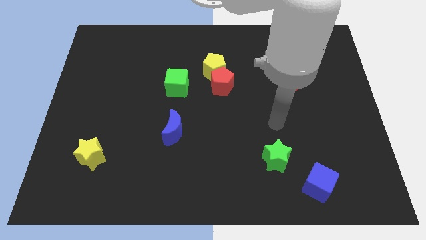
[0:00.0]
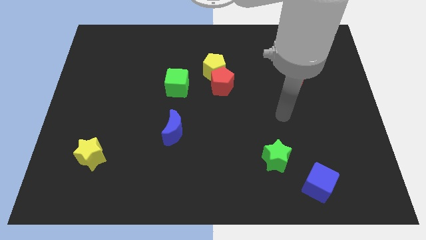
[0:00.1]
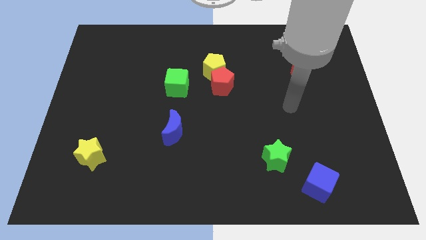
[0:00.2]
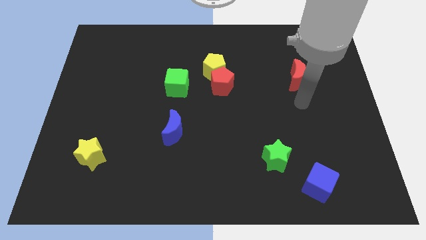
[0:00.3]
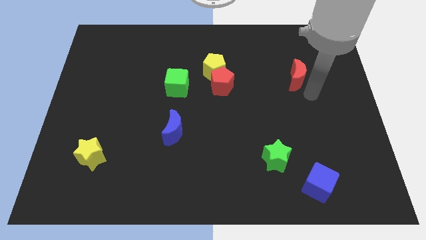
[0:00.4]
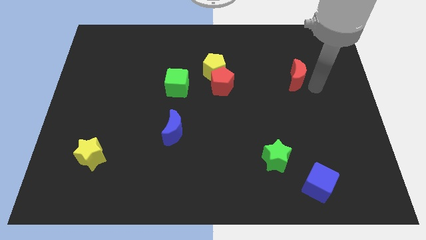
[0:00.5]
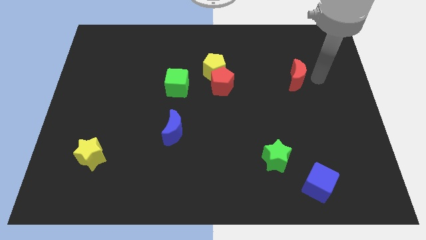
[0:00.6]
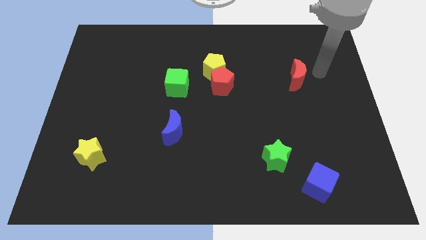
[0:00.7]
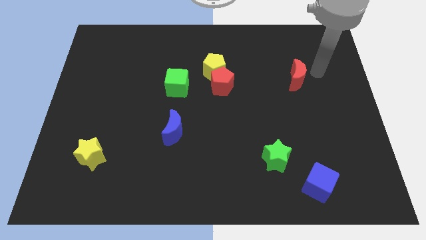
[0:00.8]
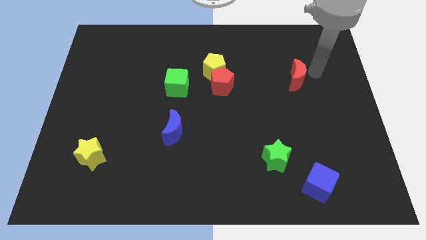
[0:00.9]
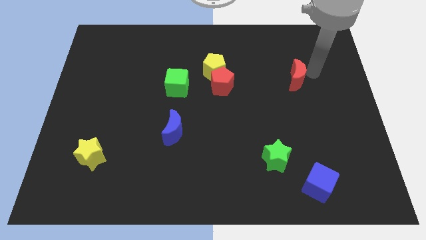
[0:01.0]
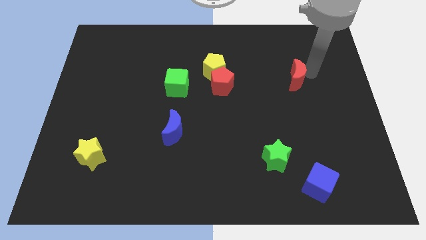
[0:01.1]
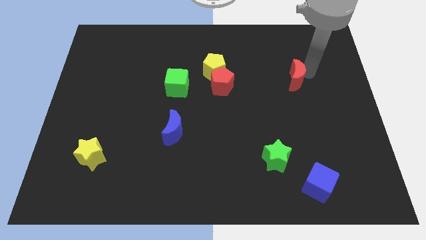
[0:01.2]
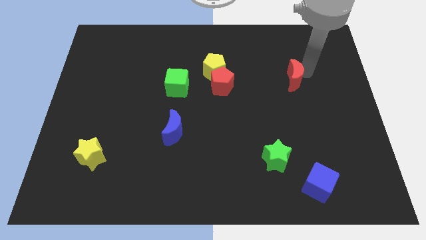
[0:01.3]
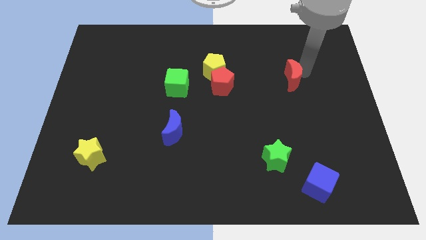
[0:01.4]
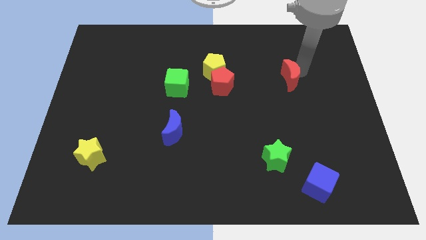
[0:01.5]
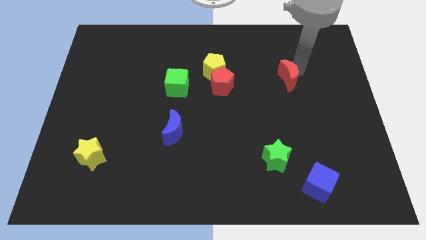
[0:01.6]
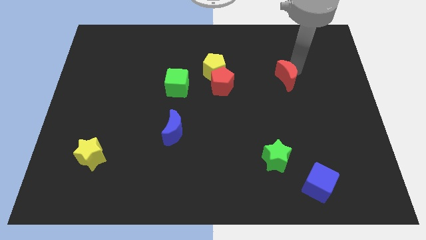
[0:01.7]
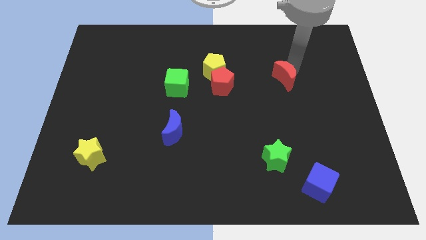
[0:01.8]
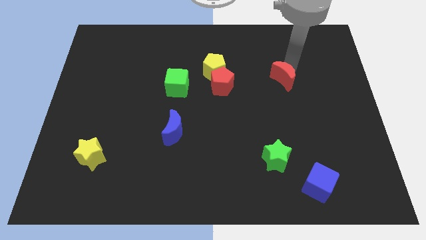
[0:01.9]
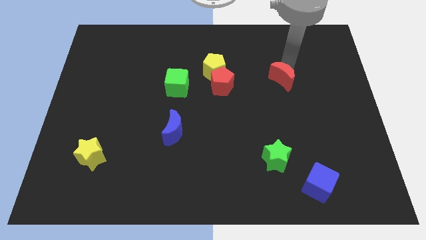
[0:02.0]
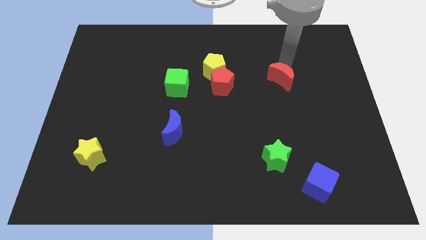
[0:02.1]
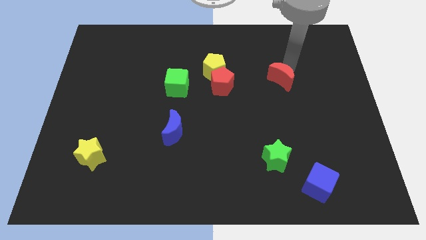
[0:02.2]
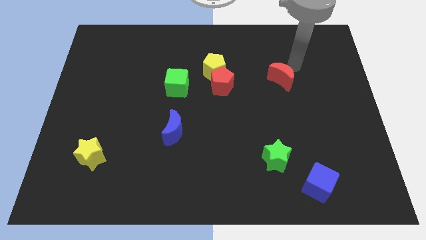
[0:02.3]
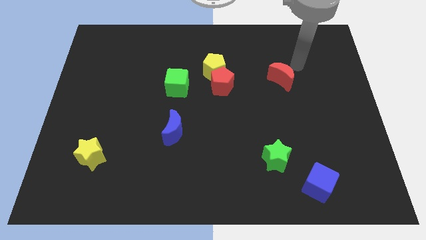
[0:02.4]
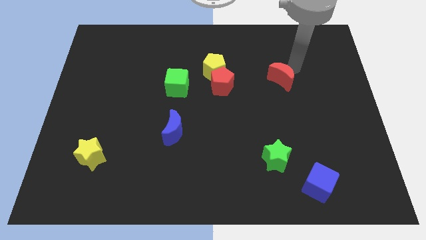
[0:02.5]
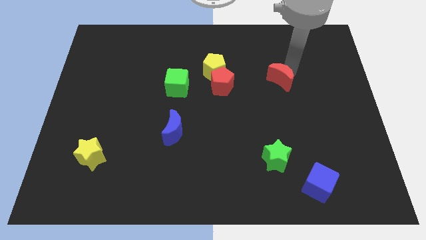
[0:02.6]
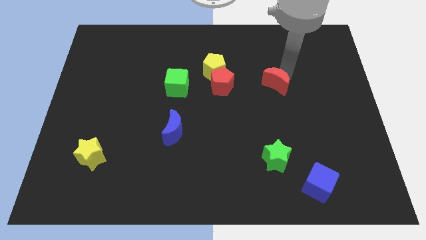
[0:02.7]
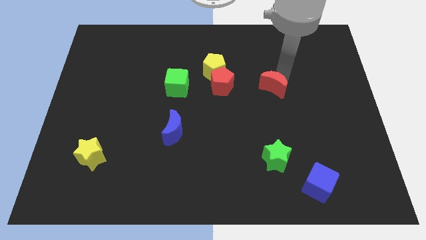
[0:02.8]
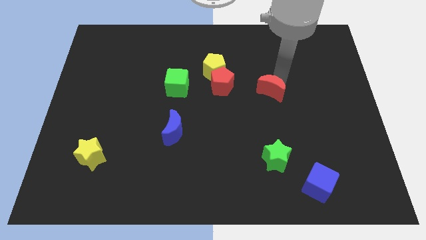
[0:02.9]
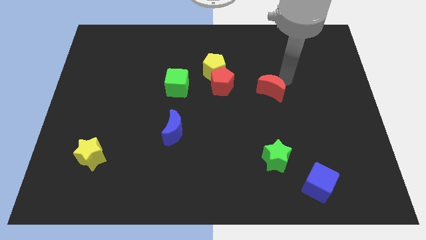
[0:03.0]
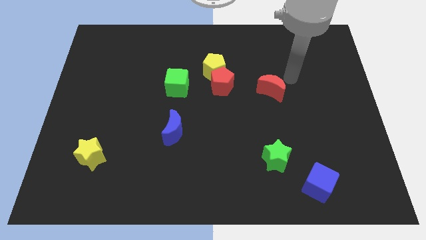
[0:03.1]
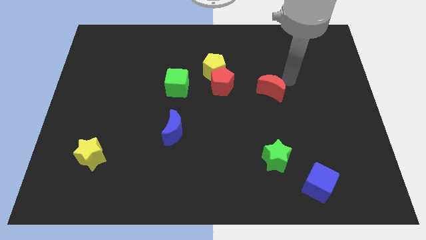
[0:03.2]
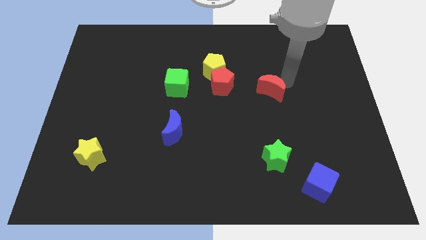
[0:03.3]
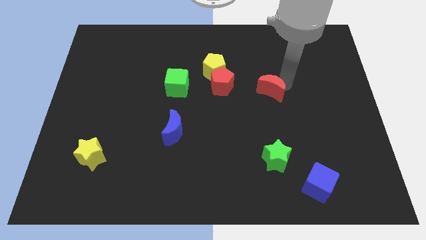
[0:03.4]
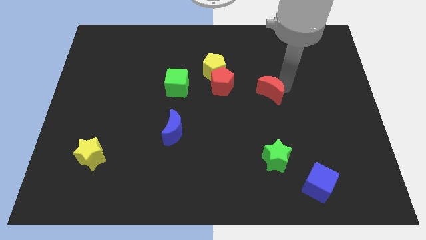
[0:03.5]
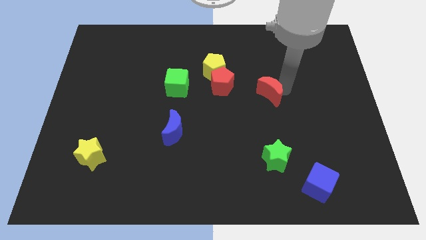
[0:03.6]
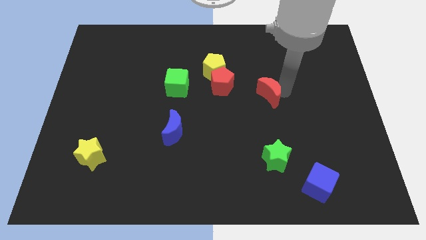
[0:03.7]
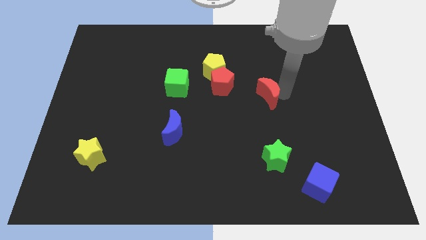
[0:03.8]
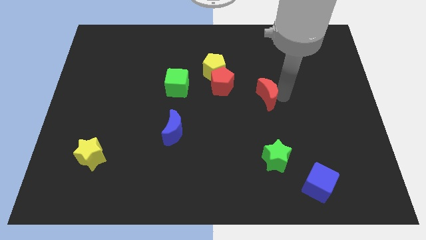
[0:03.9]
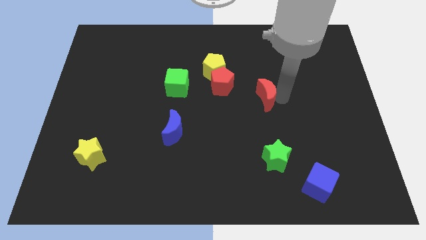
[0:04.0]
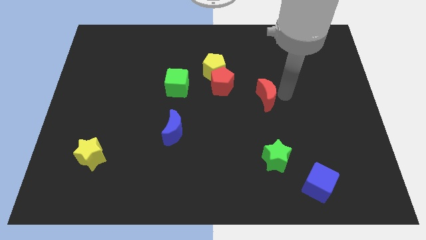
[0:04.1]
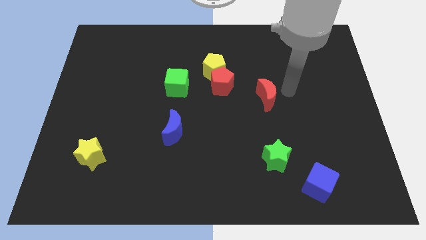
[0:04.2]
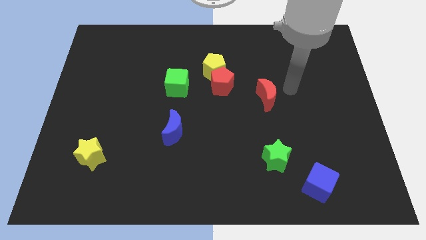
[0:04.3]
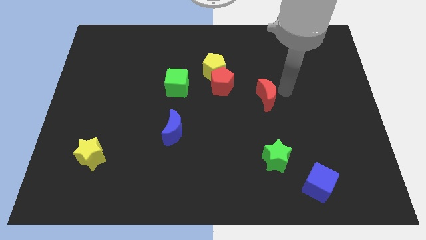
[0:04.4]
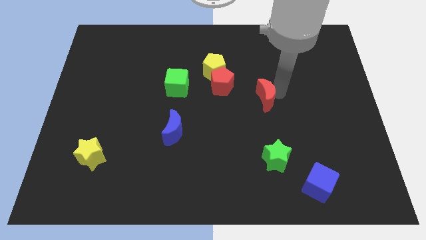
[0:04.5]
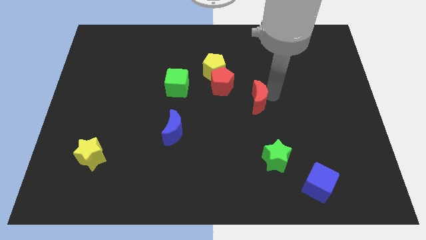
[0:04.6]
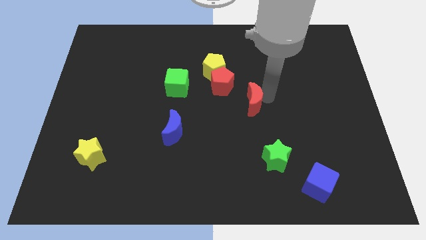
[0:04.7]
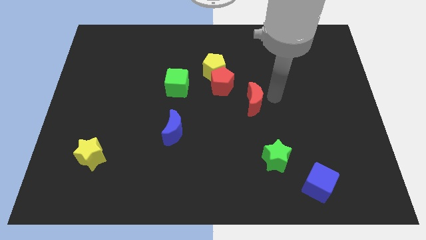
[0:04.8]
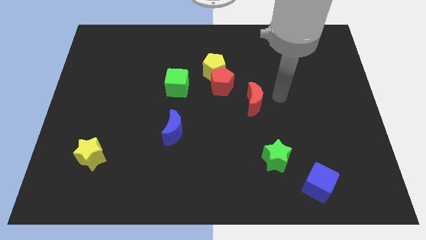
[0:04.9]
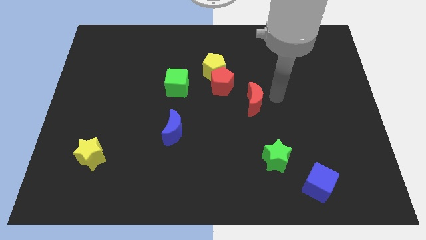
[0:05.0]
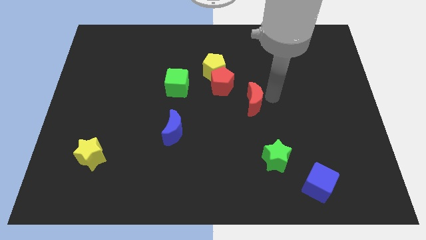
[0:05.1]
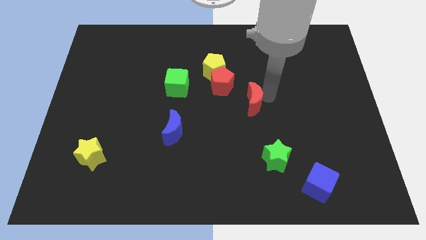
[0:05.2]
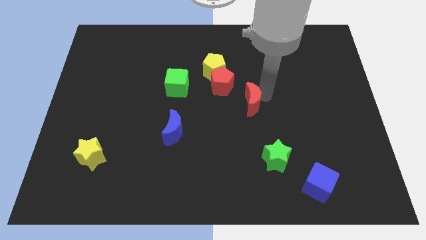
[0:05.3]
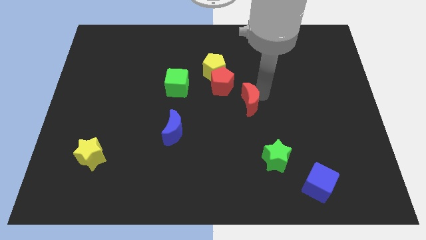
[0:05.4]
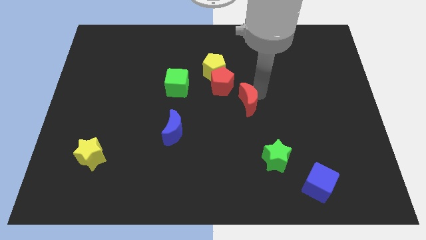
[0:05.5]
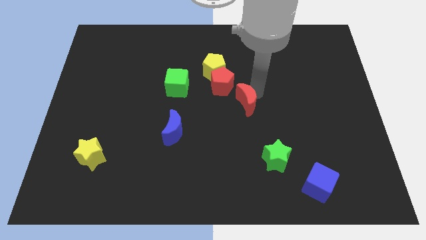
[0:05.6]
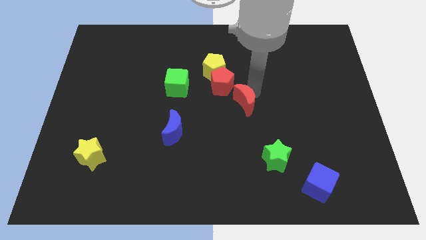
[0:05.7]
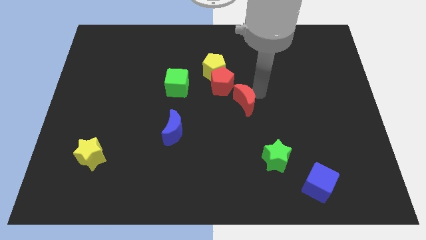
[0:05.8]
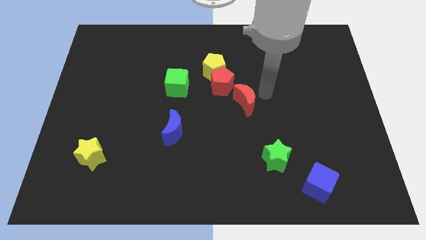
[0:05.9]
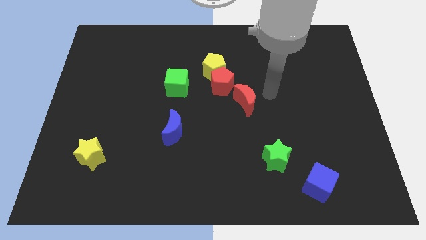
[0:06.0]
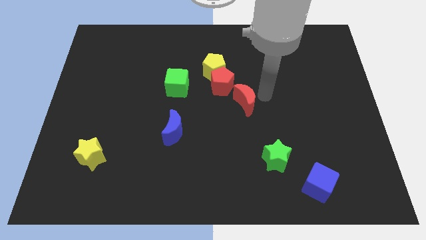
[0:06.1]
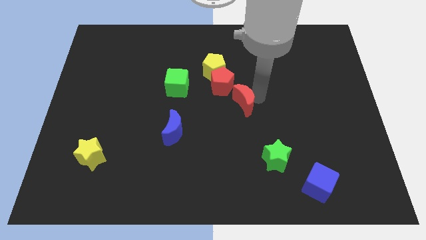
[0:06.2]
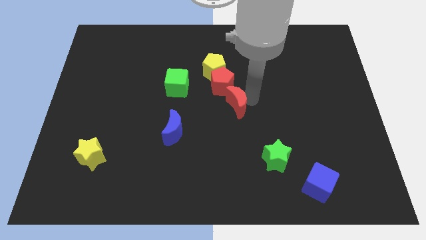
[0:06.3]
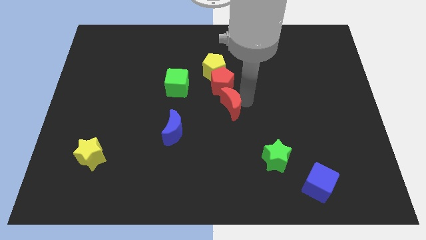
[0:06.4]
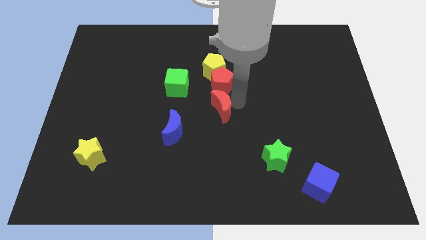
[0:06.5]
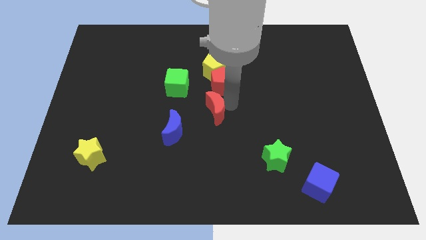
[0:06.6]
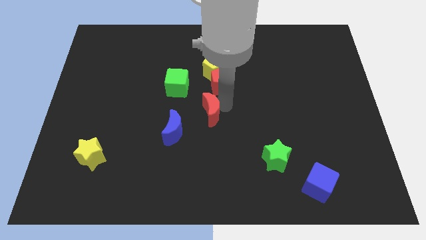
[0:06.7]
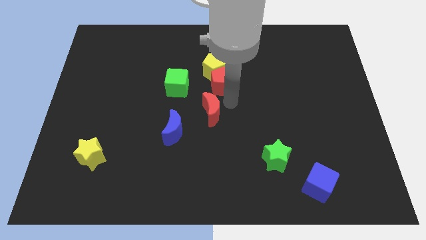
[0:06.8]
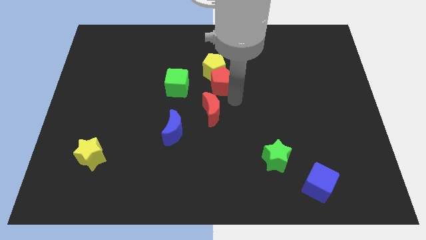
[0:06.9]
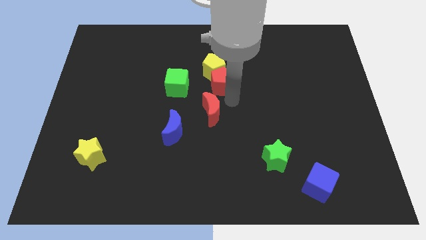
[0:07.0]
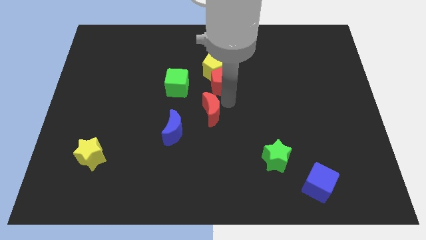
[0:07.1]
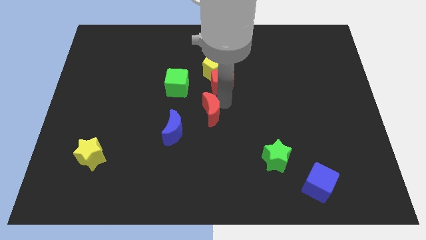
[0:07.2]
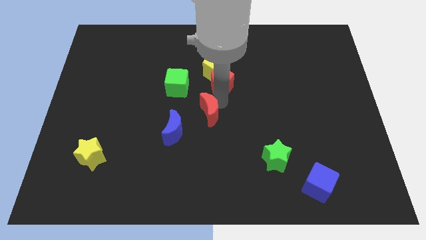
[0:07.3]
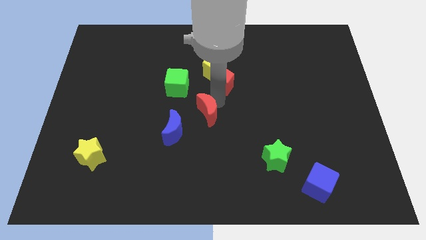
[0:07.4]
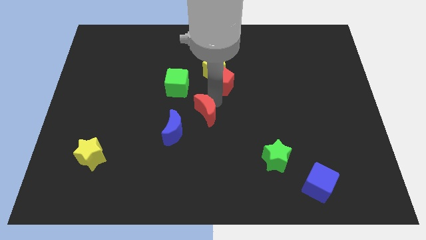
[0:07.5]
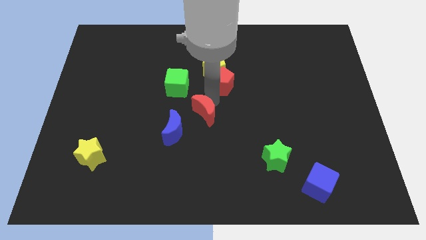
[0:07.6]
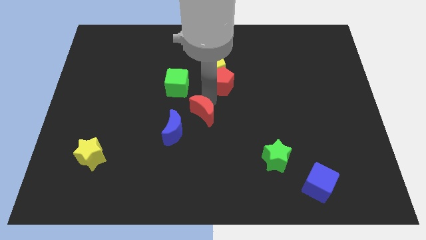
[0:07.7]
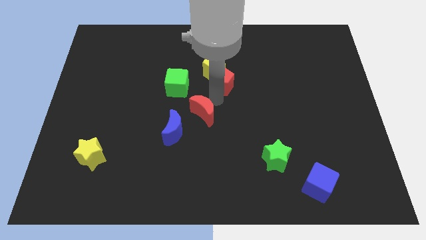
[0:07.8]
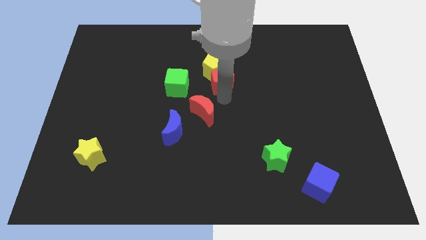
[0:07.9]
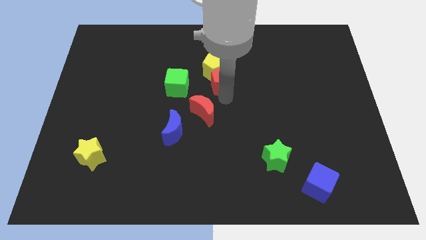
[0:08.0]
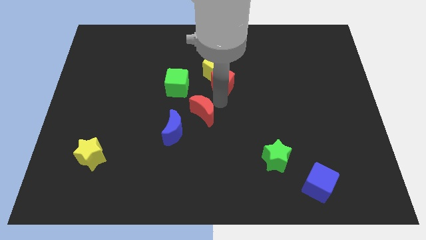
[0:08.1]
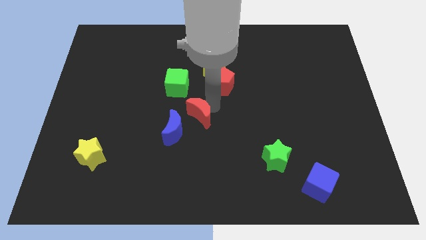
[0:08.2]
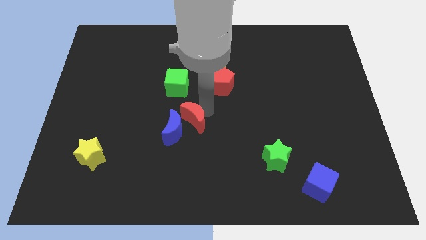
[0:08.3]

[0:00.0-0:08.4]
push the red moon next to the blue moon
